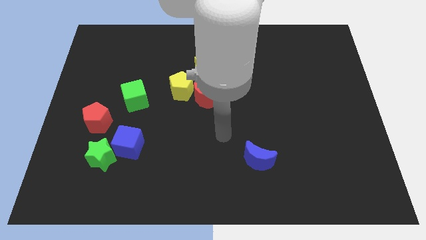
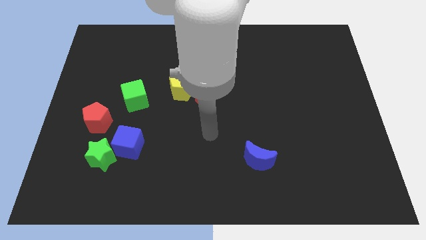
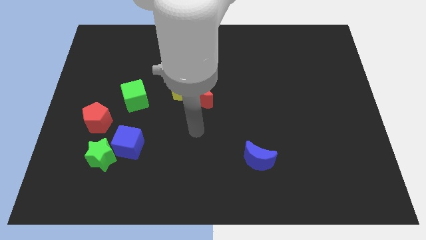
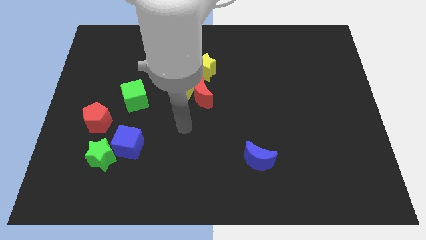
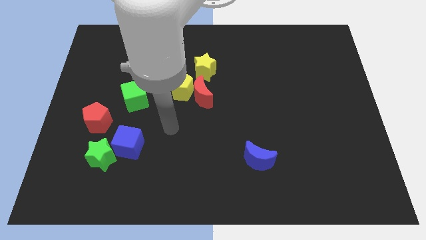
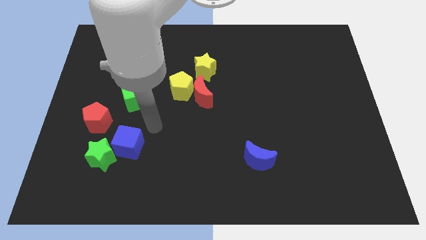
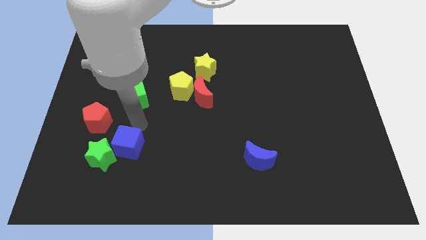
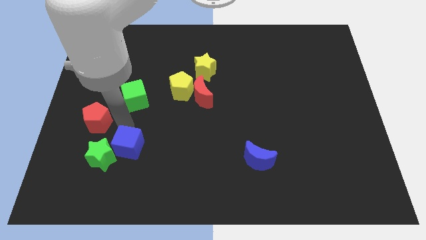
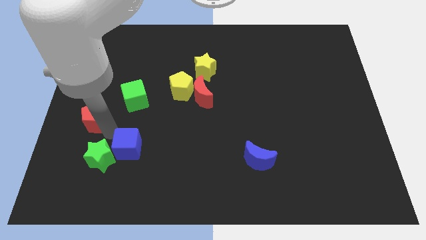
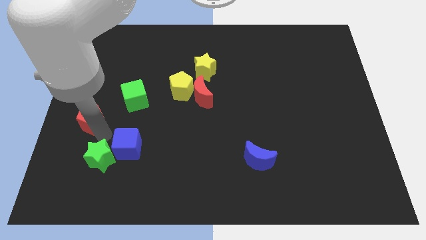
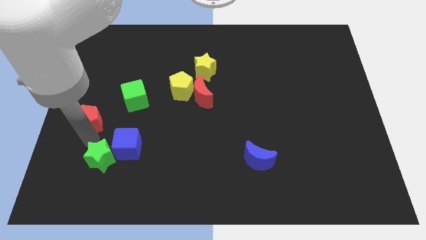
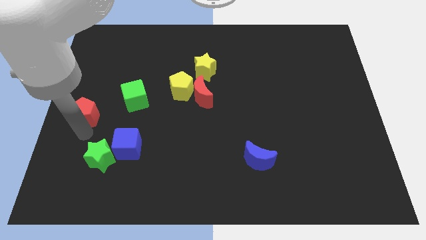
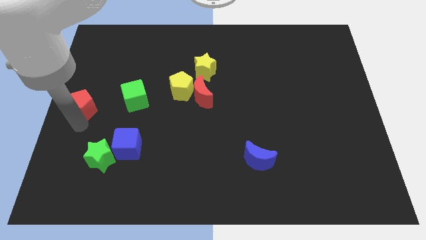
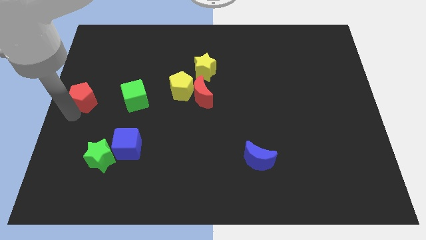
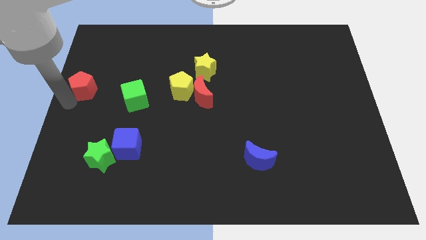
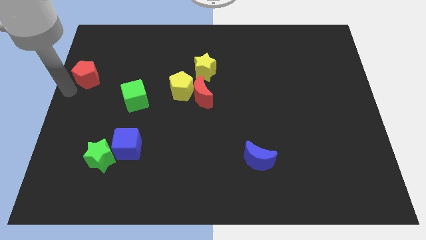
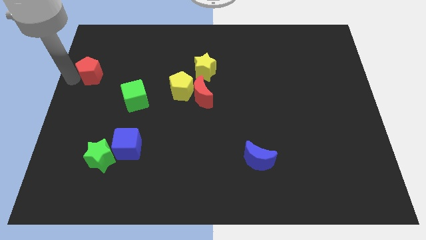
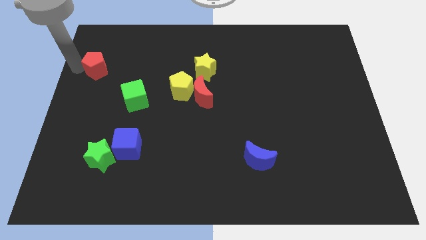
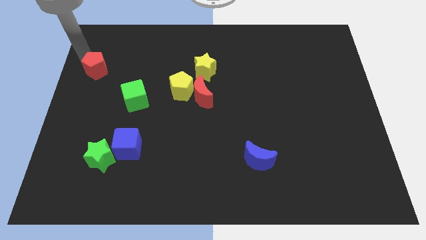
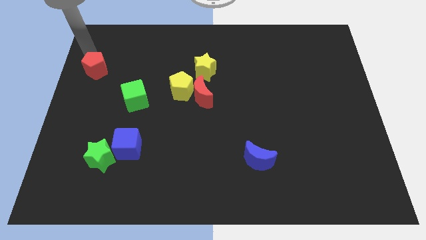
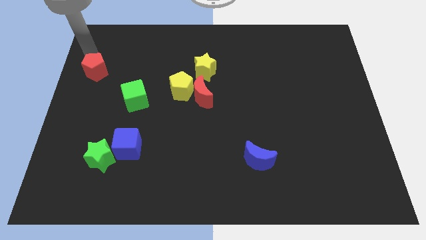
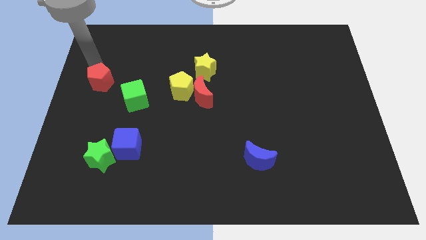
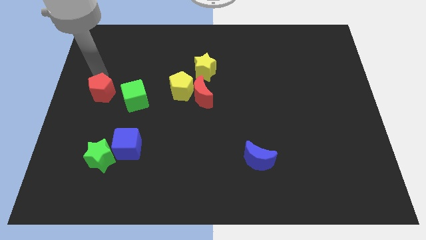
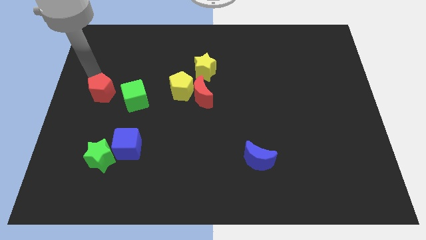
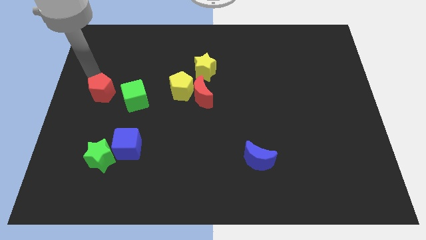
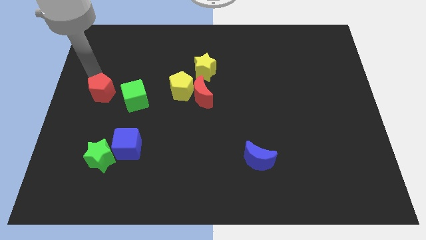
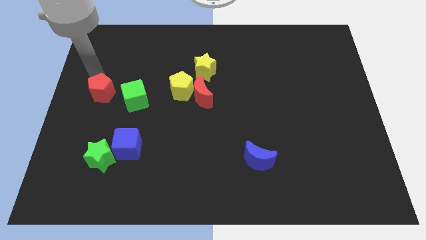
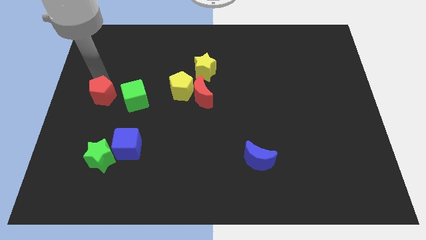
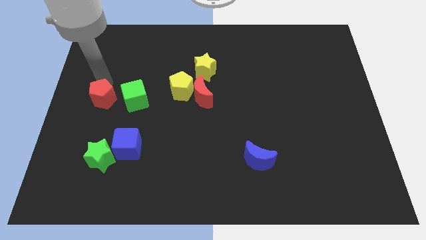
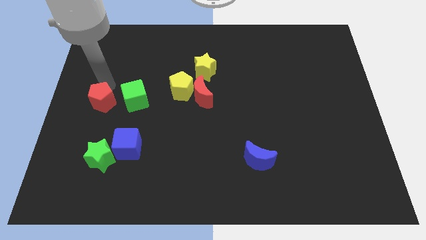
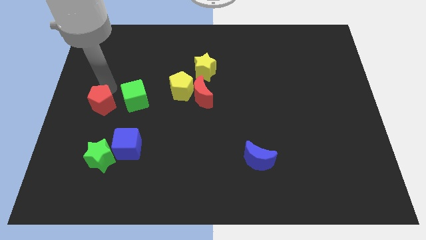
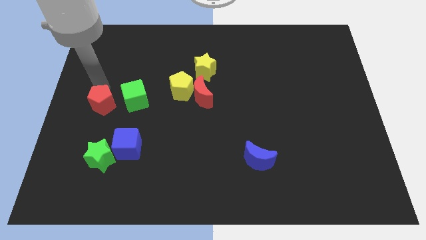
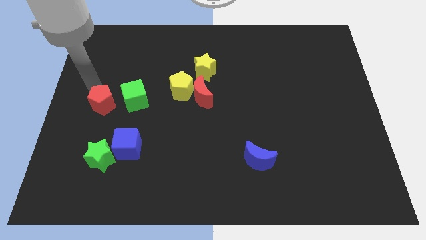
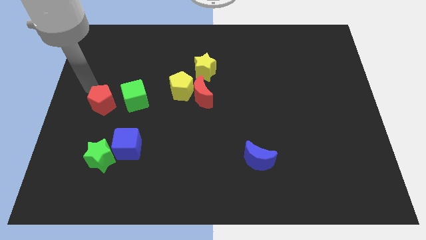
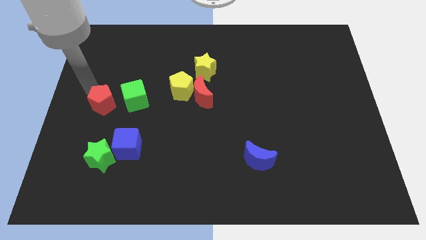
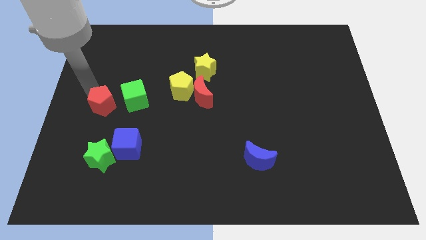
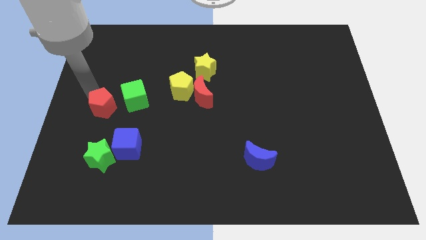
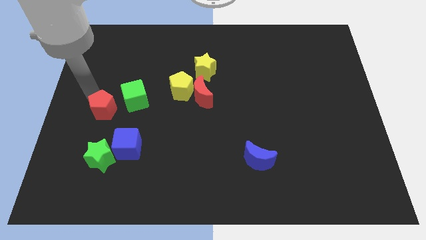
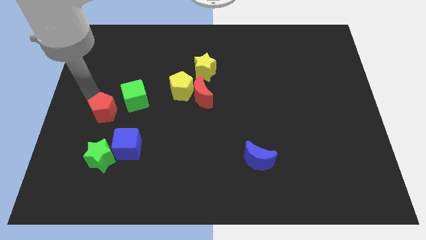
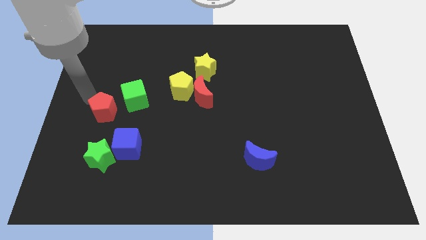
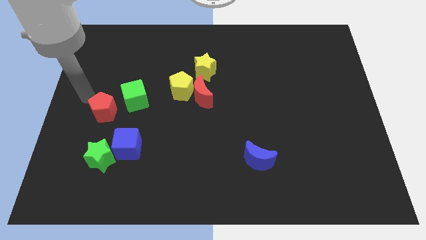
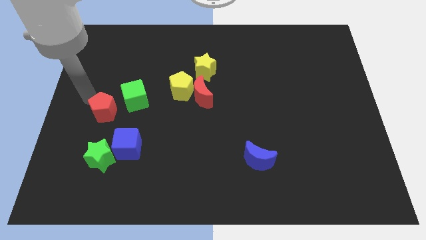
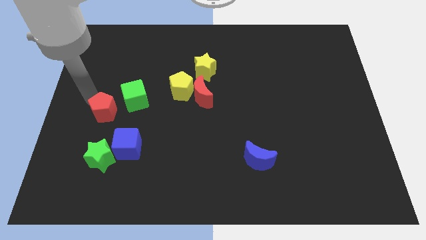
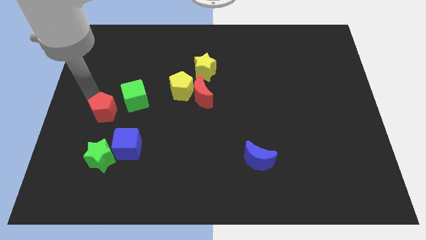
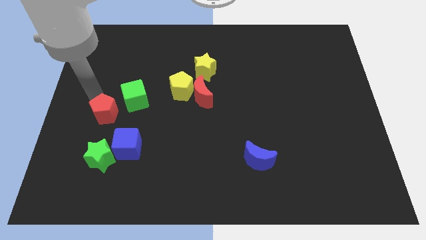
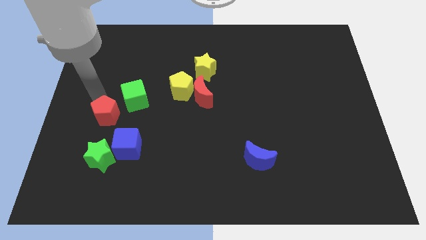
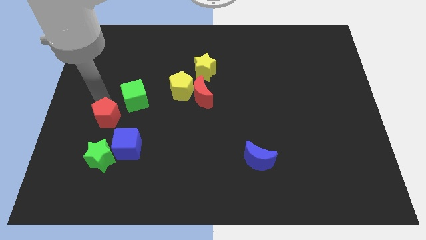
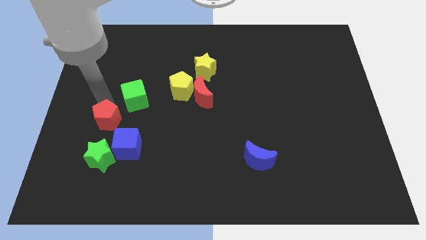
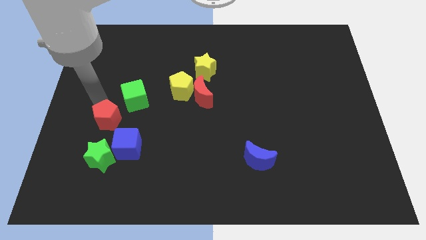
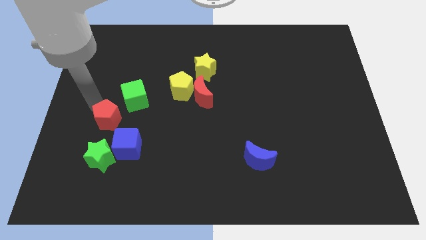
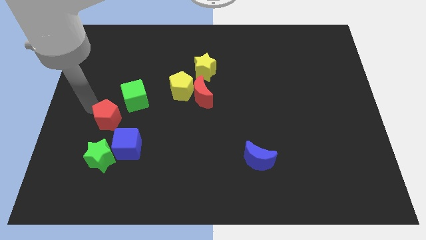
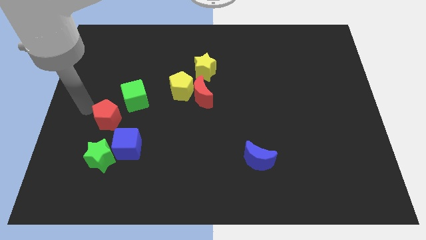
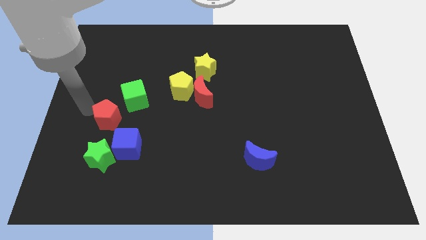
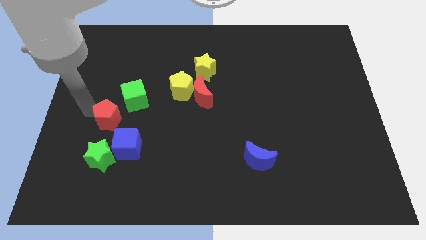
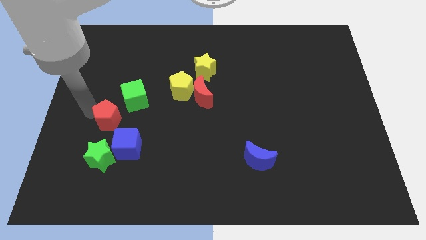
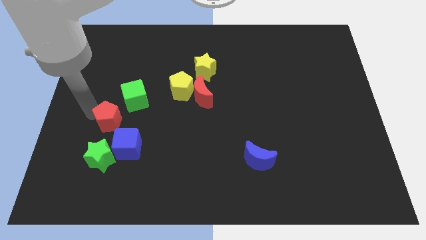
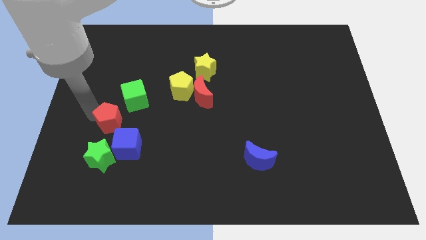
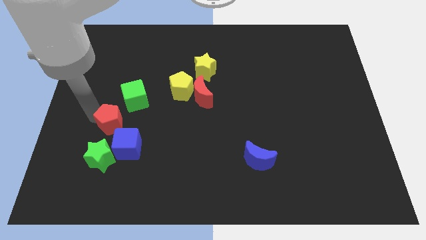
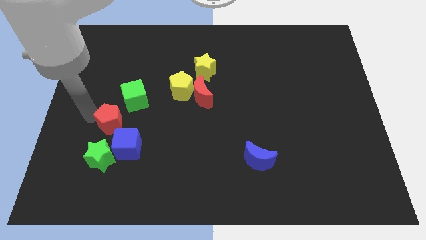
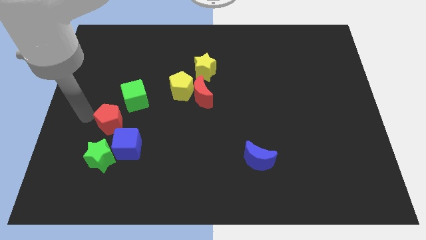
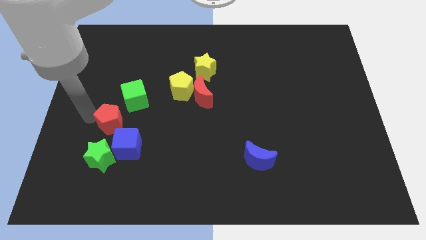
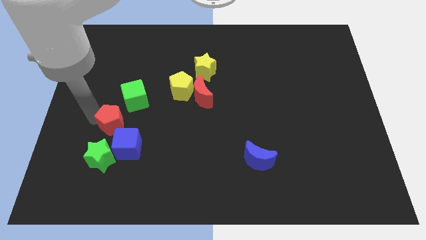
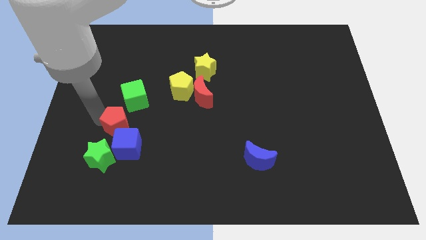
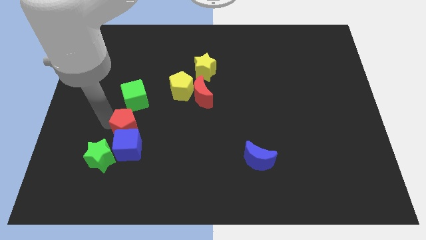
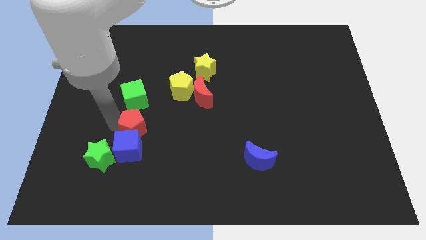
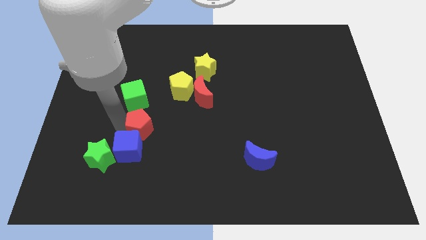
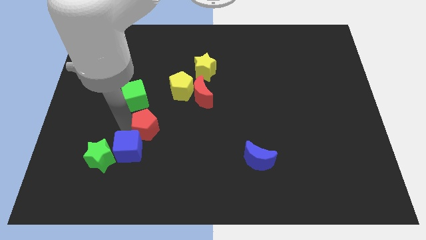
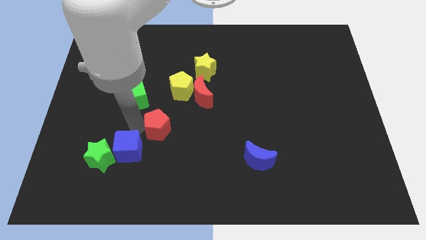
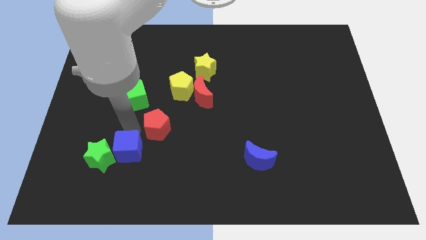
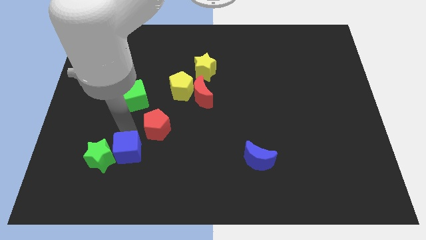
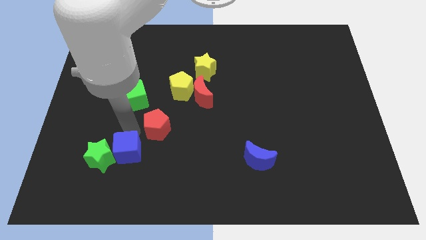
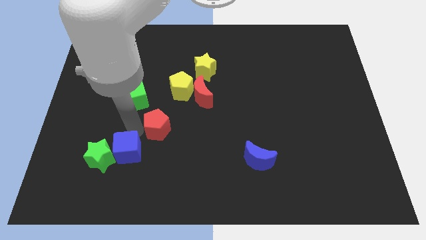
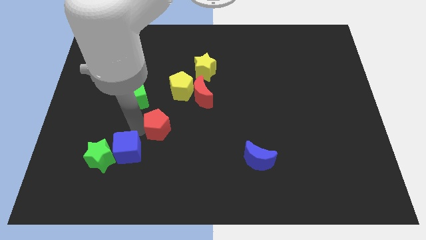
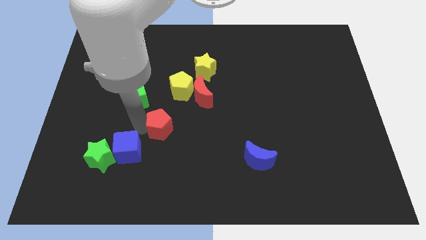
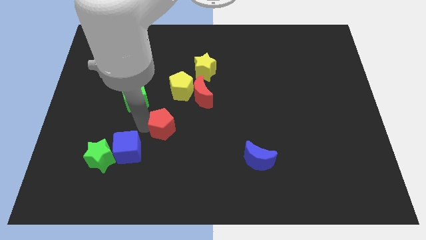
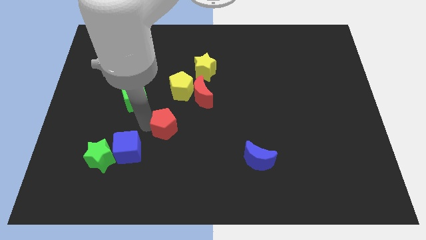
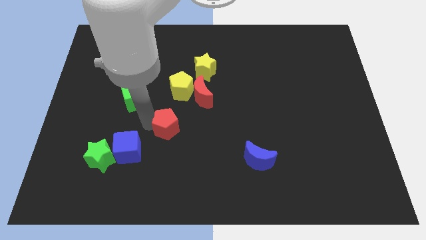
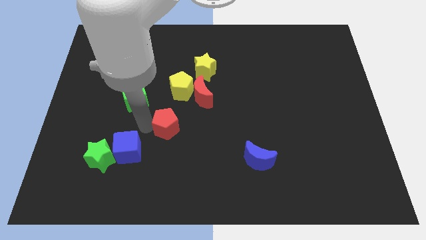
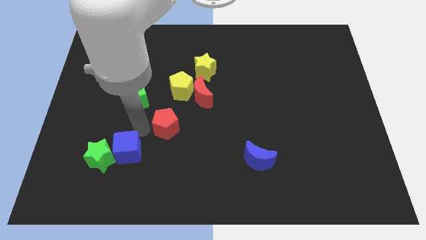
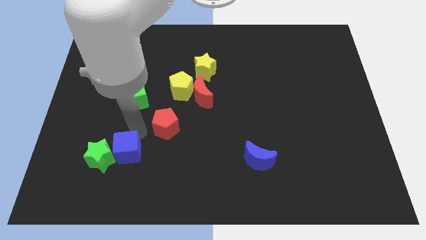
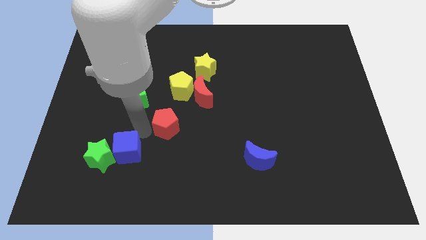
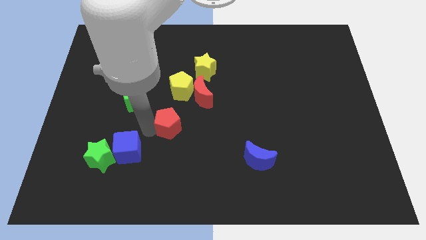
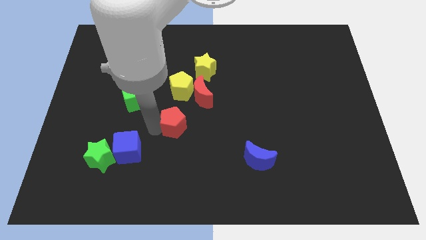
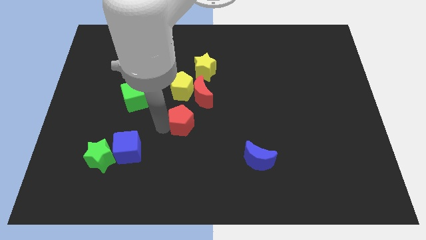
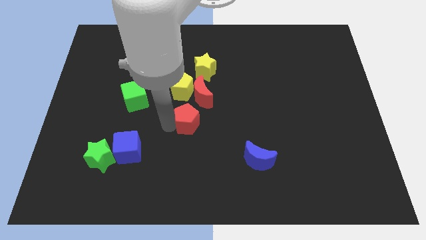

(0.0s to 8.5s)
push the red pentagon right
